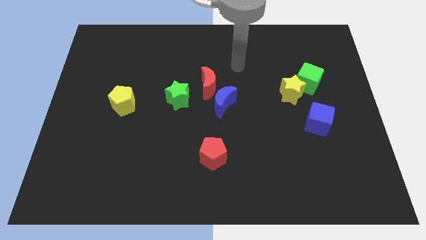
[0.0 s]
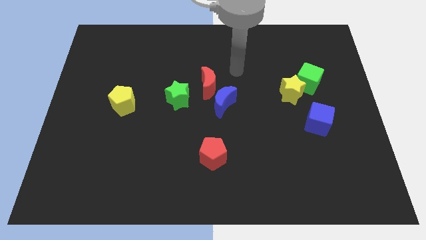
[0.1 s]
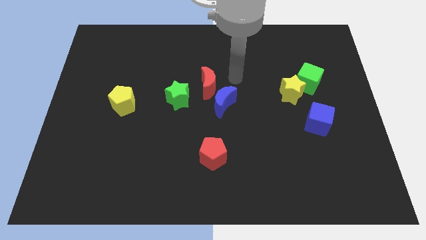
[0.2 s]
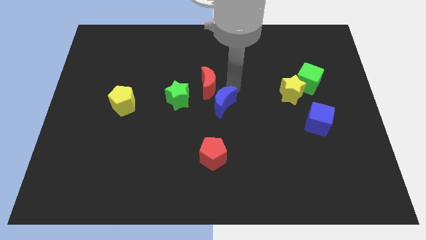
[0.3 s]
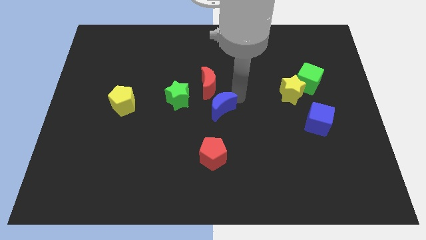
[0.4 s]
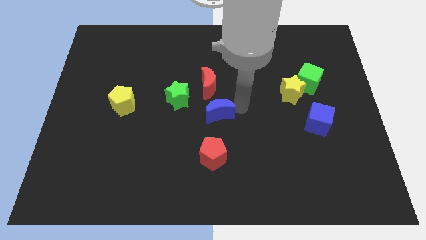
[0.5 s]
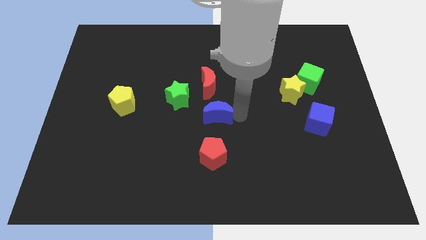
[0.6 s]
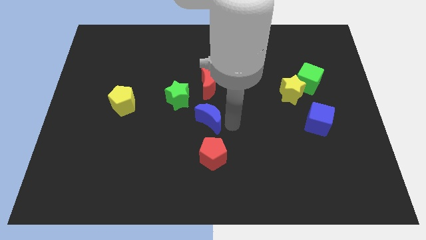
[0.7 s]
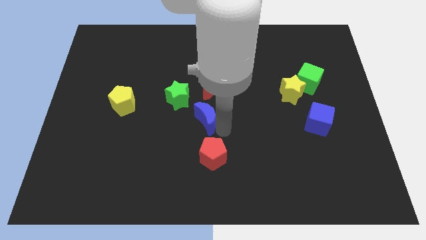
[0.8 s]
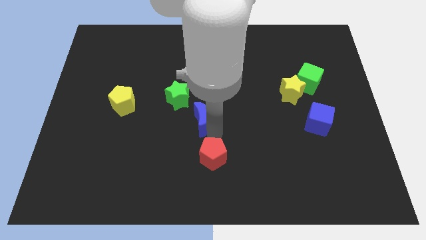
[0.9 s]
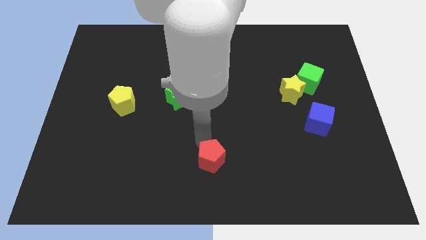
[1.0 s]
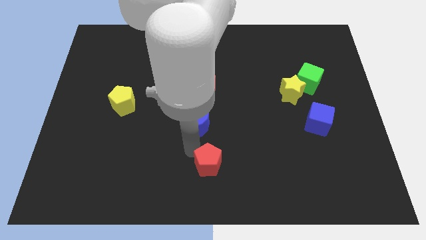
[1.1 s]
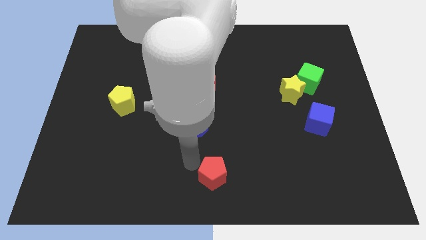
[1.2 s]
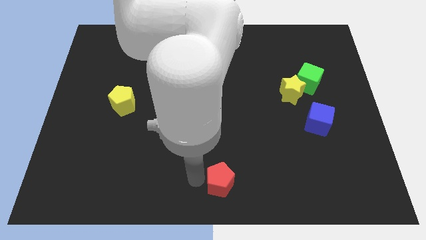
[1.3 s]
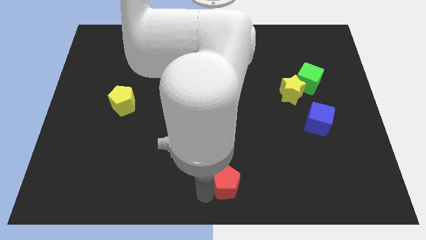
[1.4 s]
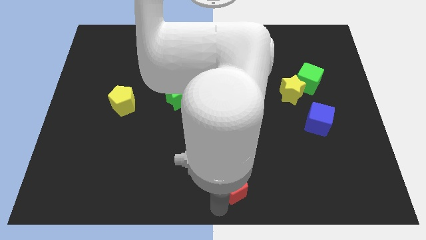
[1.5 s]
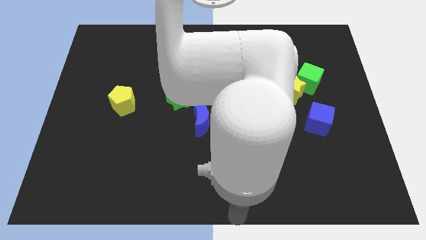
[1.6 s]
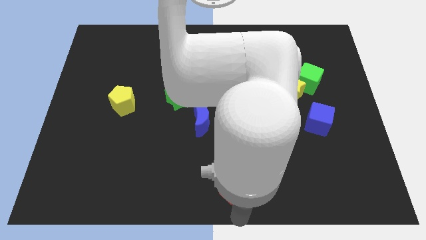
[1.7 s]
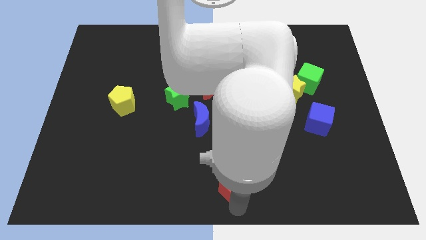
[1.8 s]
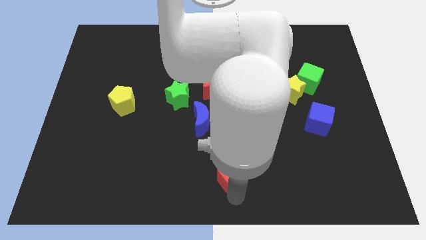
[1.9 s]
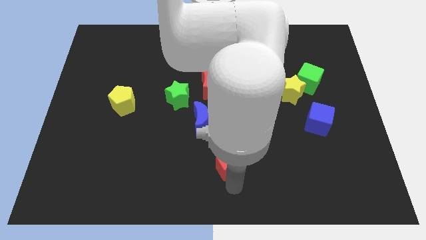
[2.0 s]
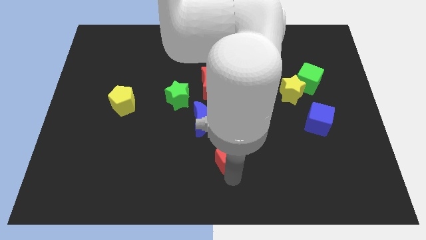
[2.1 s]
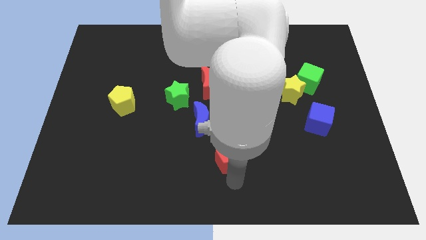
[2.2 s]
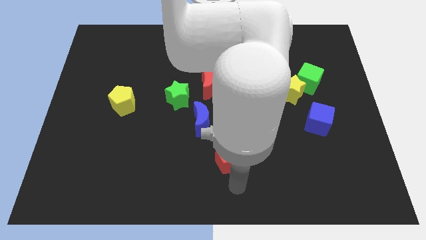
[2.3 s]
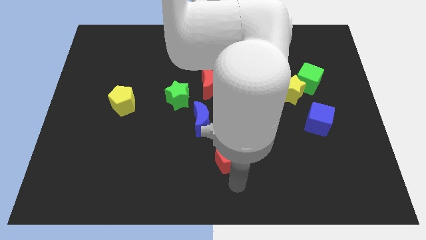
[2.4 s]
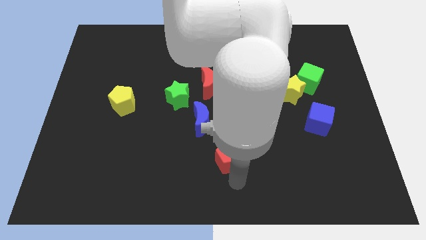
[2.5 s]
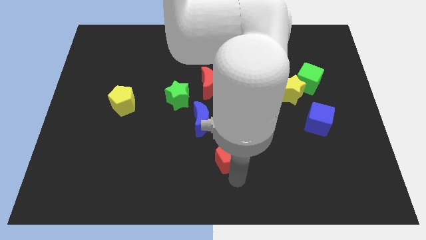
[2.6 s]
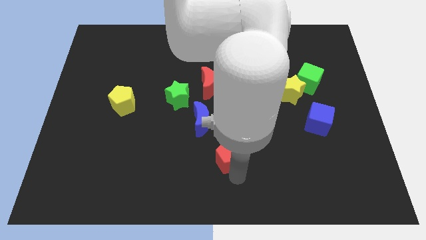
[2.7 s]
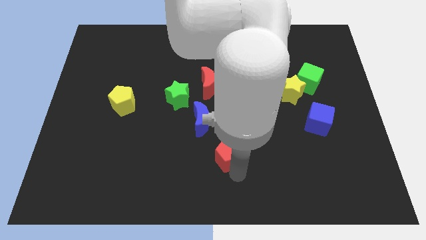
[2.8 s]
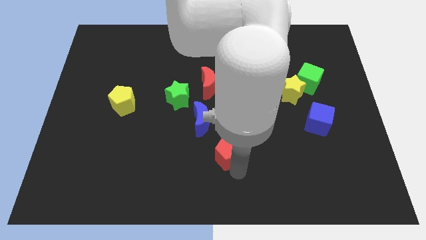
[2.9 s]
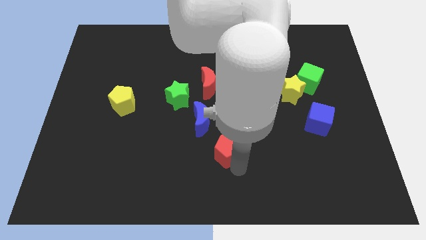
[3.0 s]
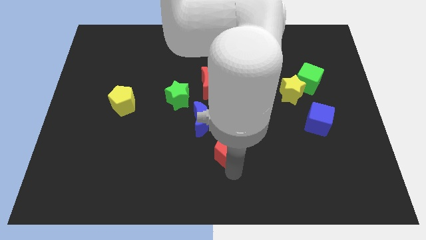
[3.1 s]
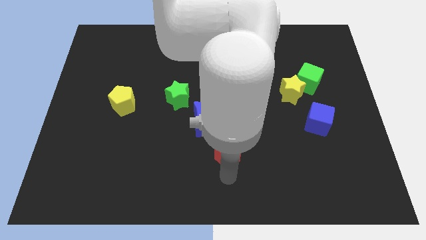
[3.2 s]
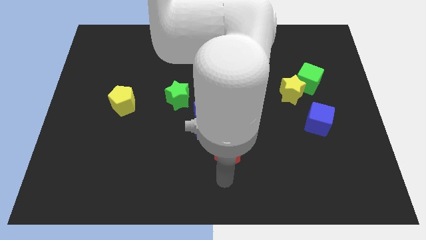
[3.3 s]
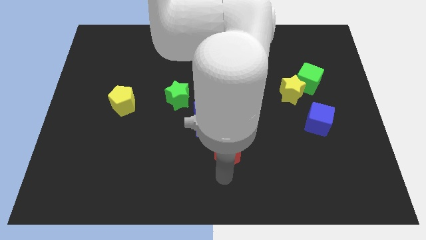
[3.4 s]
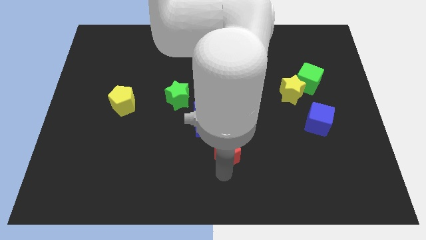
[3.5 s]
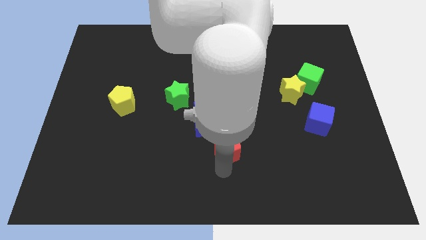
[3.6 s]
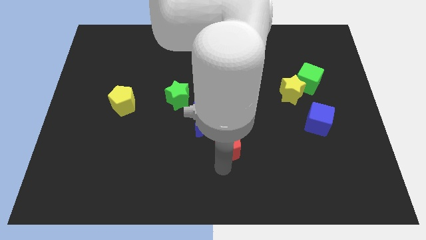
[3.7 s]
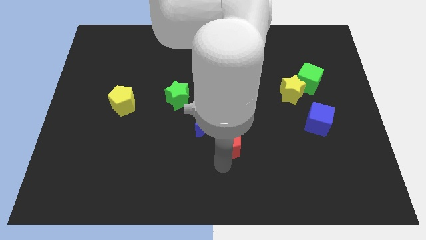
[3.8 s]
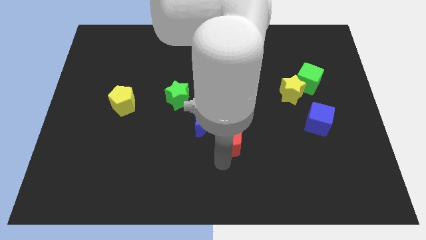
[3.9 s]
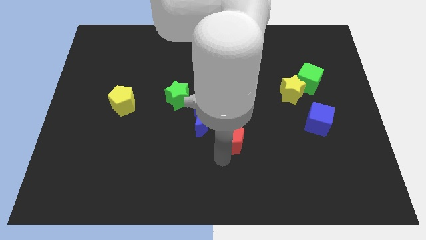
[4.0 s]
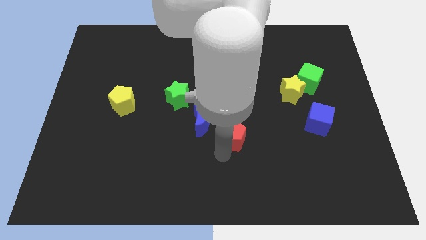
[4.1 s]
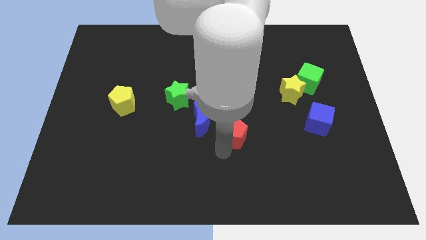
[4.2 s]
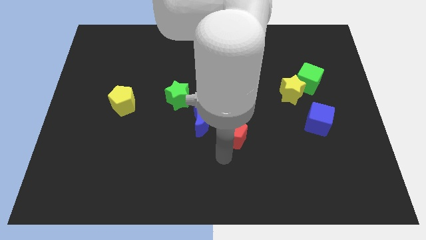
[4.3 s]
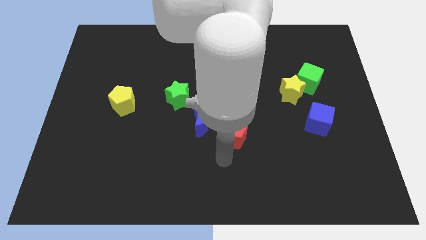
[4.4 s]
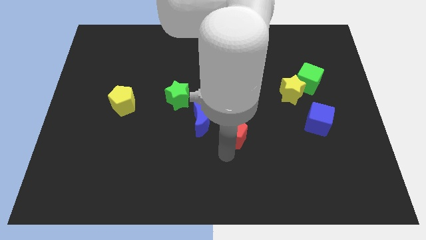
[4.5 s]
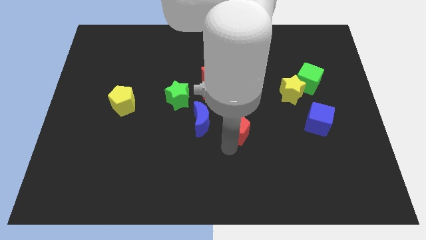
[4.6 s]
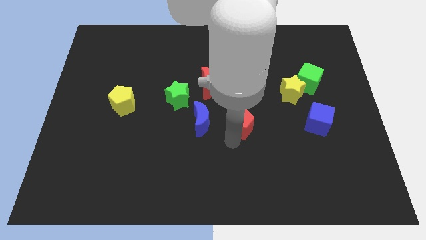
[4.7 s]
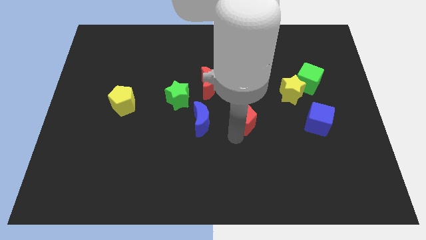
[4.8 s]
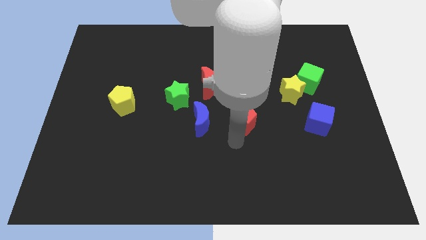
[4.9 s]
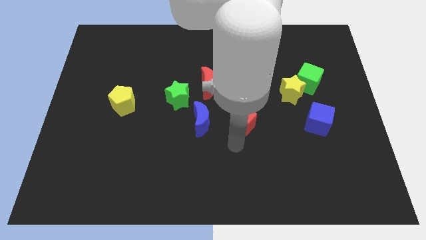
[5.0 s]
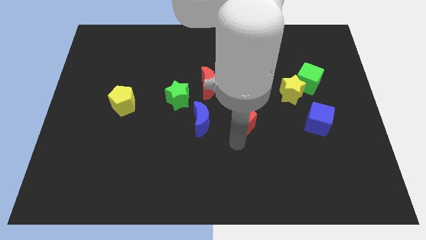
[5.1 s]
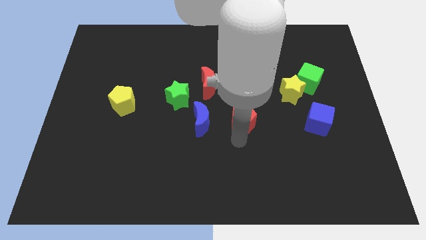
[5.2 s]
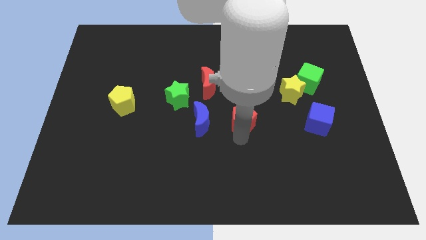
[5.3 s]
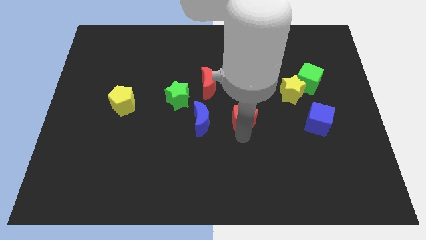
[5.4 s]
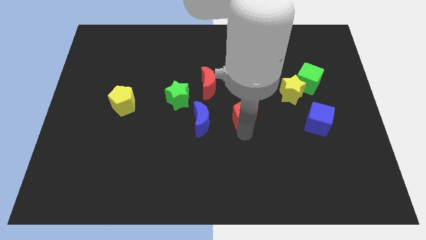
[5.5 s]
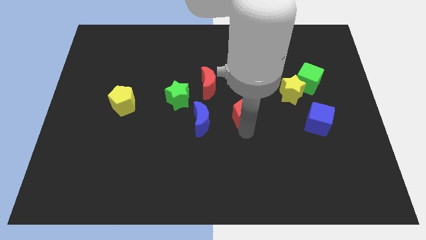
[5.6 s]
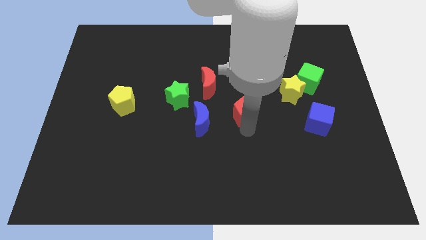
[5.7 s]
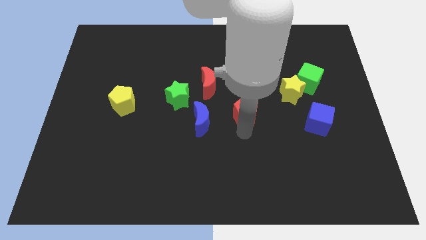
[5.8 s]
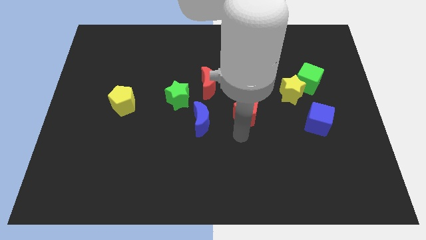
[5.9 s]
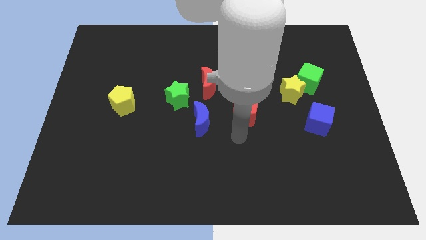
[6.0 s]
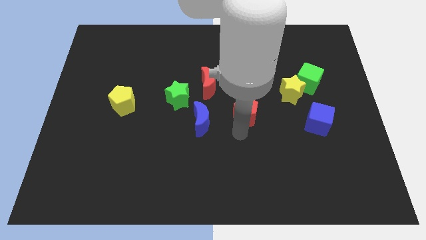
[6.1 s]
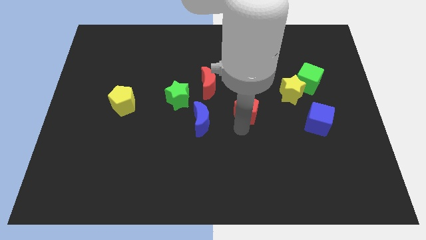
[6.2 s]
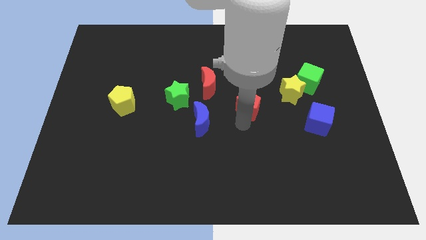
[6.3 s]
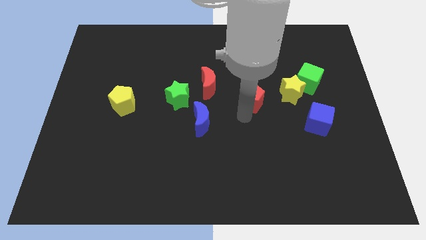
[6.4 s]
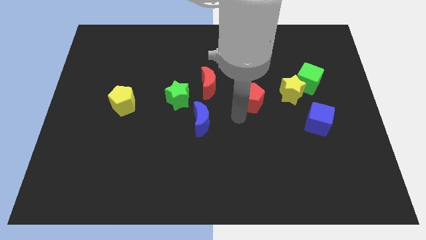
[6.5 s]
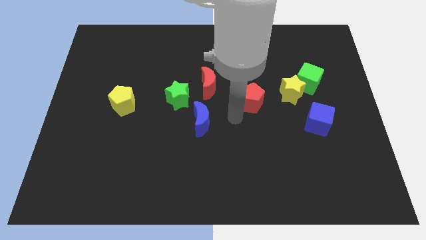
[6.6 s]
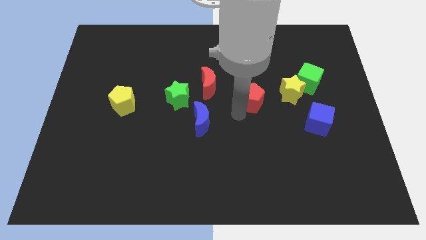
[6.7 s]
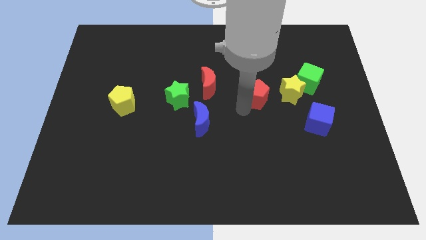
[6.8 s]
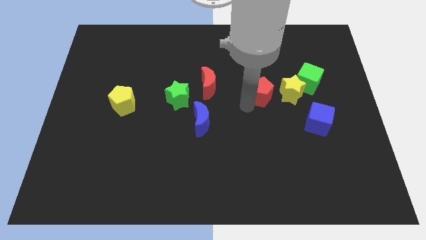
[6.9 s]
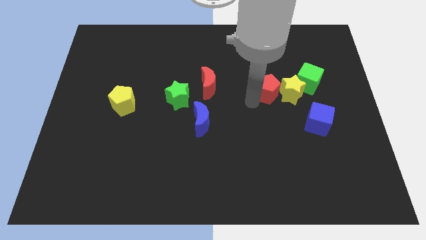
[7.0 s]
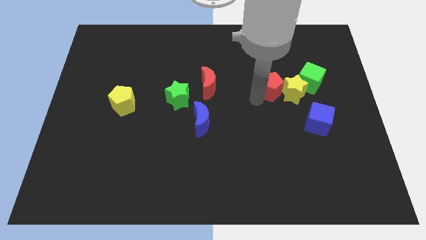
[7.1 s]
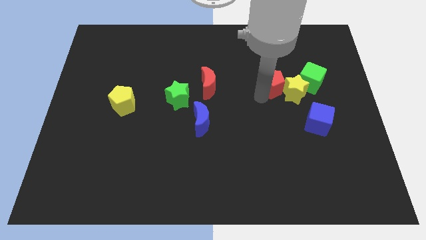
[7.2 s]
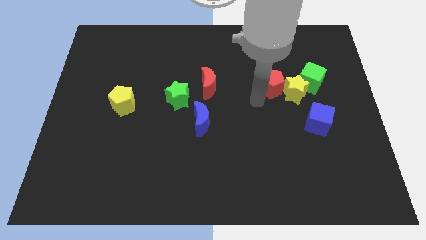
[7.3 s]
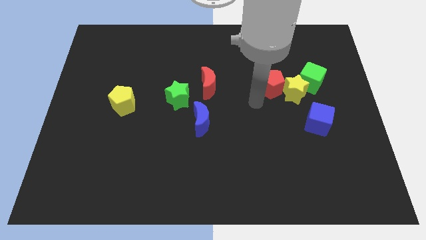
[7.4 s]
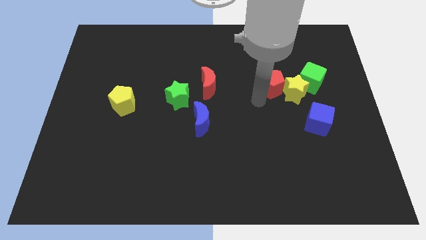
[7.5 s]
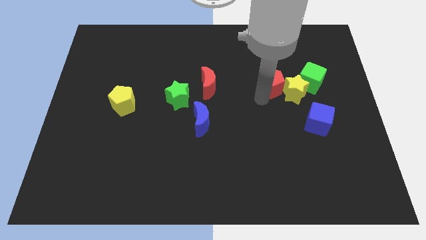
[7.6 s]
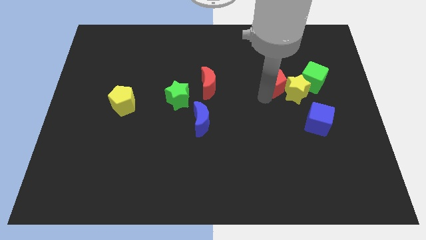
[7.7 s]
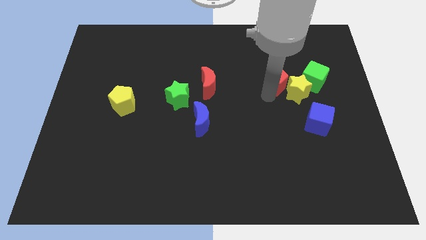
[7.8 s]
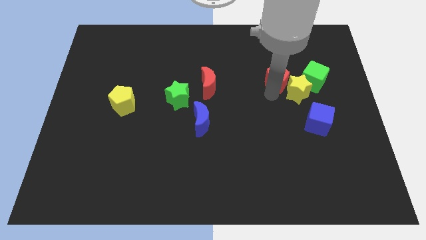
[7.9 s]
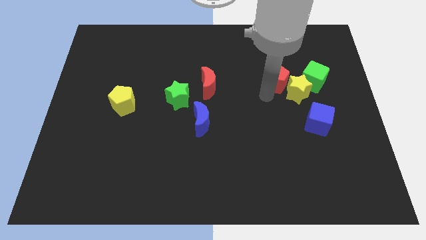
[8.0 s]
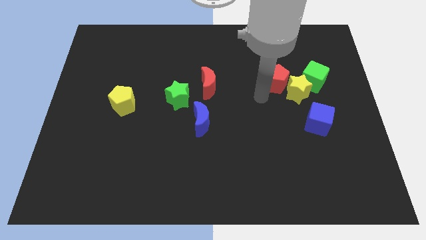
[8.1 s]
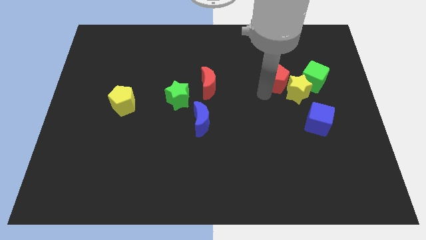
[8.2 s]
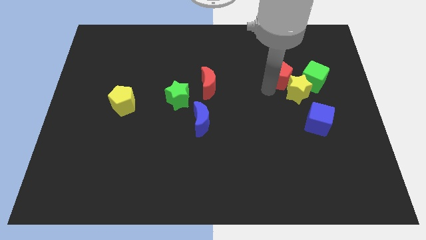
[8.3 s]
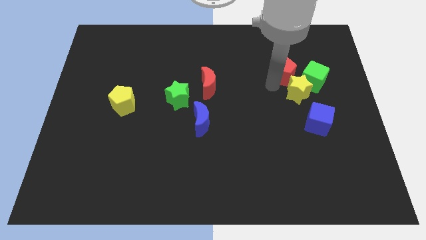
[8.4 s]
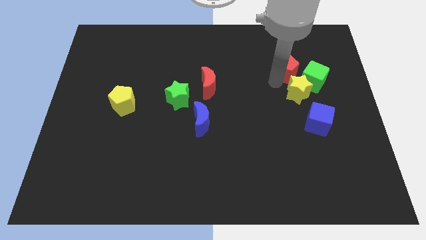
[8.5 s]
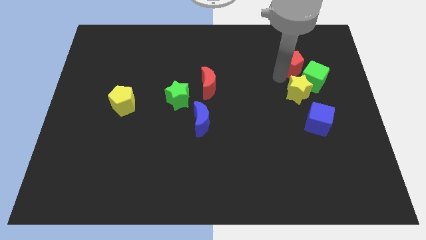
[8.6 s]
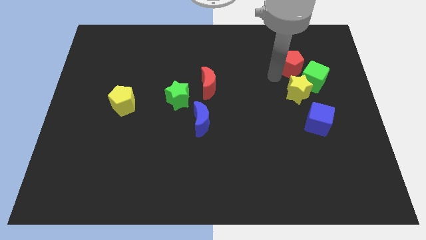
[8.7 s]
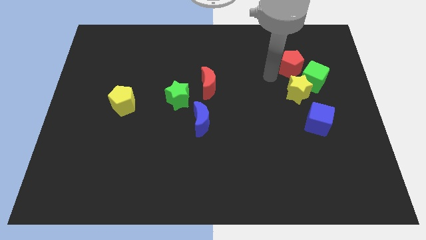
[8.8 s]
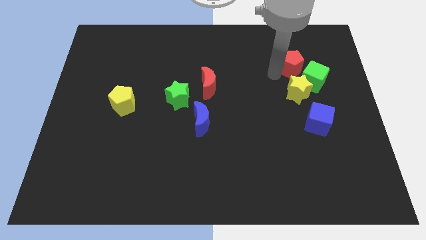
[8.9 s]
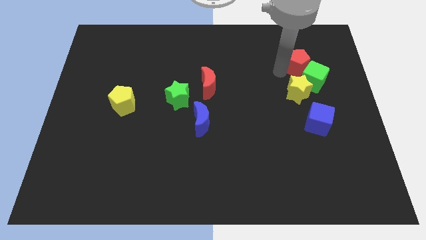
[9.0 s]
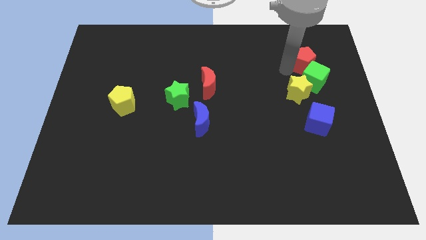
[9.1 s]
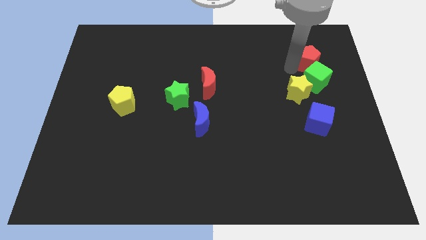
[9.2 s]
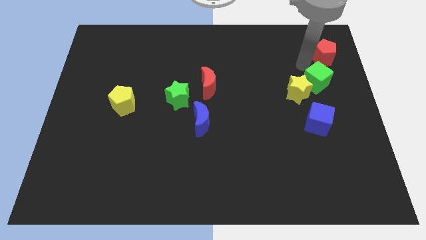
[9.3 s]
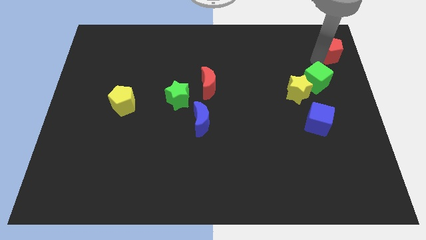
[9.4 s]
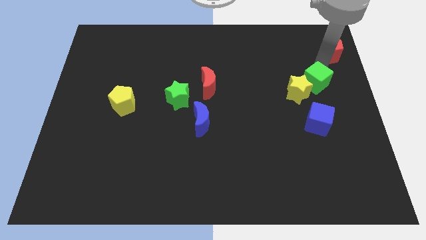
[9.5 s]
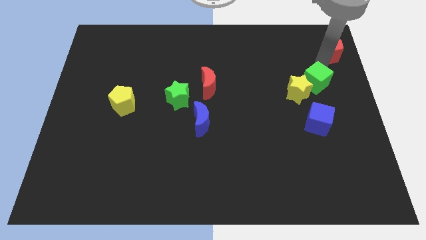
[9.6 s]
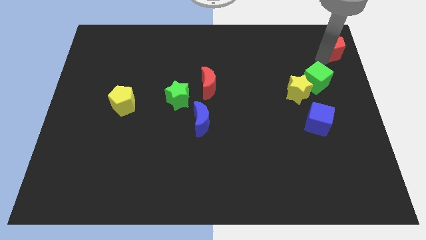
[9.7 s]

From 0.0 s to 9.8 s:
push the red pentagon to the top right
